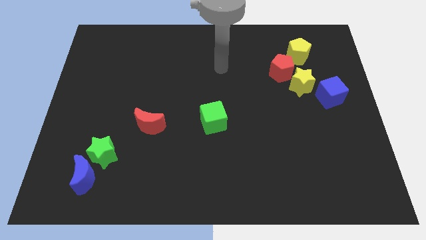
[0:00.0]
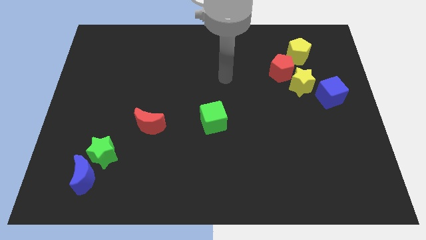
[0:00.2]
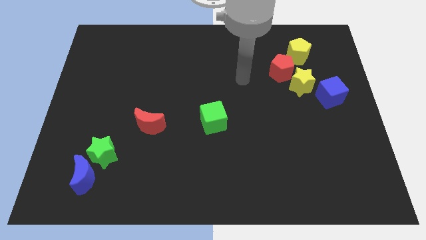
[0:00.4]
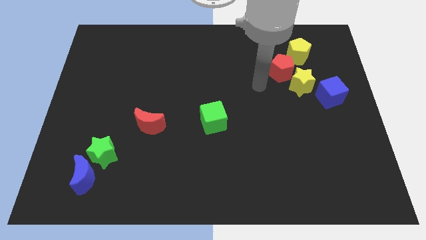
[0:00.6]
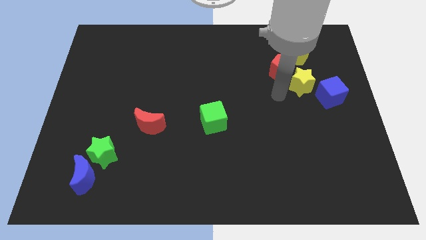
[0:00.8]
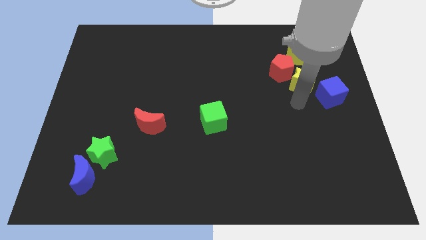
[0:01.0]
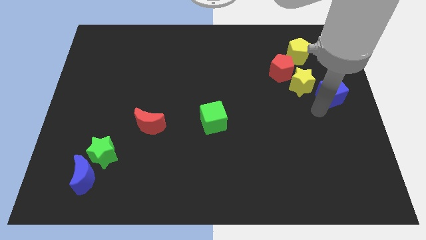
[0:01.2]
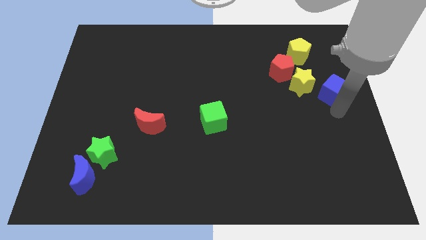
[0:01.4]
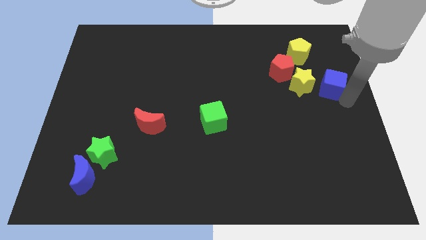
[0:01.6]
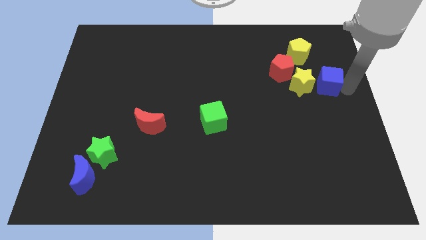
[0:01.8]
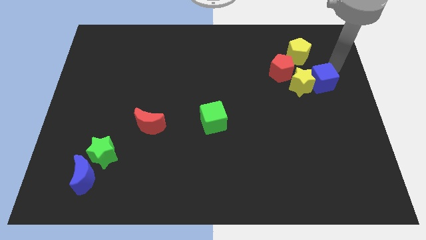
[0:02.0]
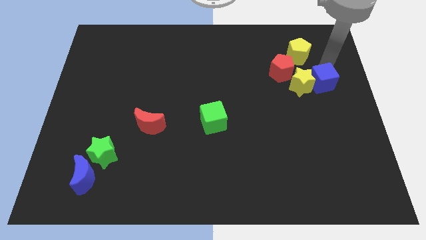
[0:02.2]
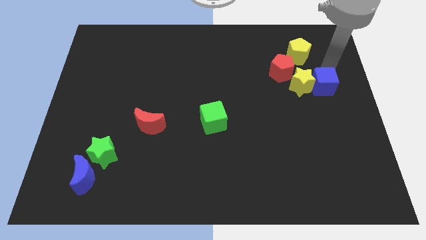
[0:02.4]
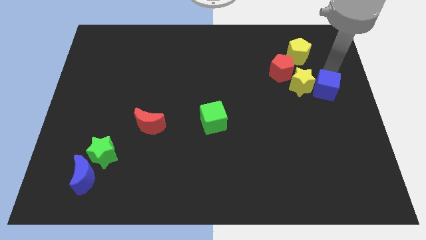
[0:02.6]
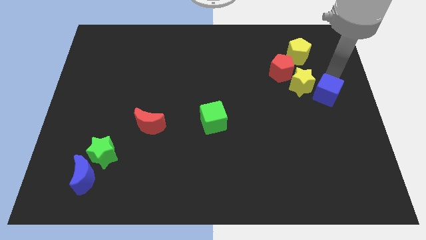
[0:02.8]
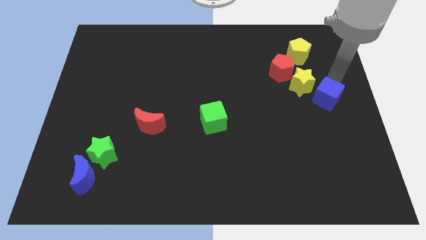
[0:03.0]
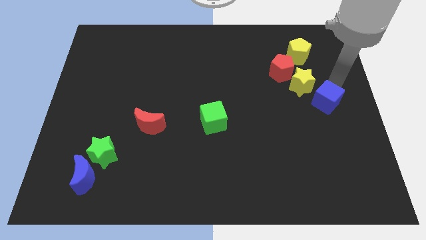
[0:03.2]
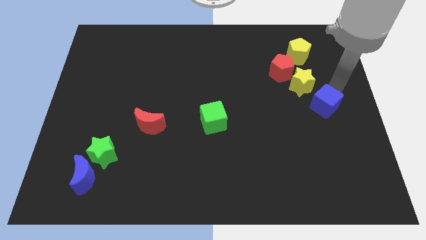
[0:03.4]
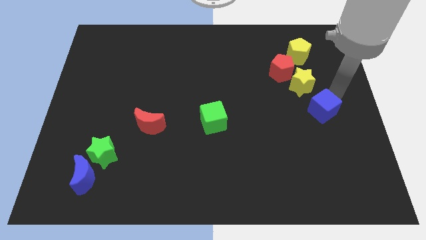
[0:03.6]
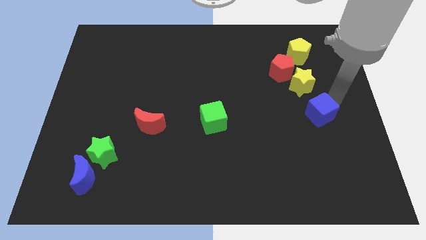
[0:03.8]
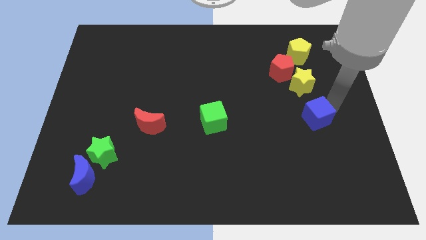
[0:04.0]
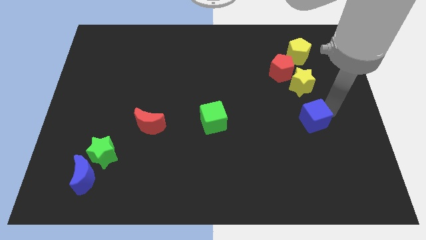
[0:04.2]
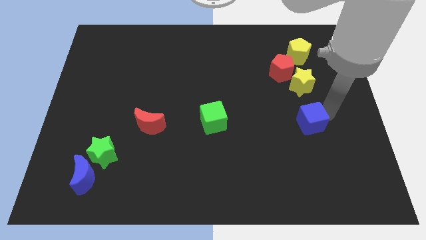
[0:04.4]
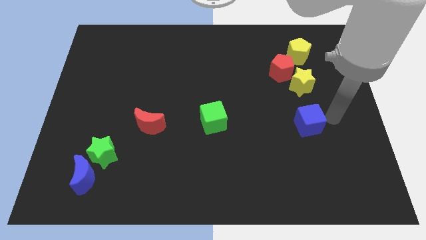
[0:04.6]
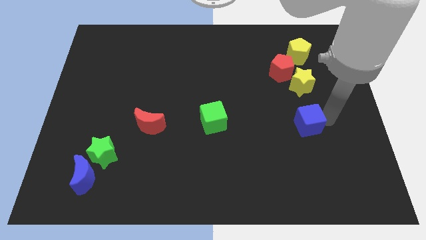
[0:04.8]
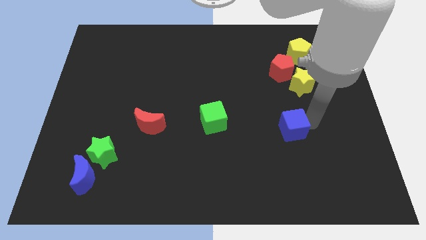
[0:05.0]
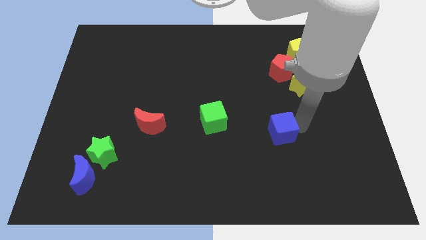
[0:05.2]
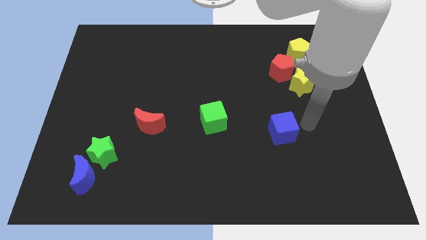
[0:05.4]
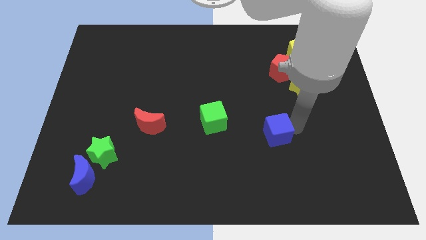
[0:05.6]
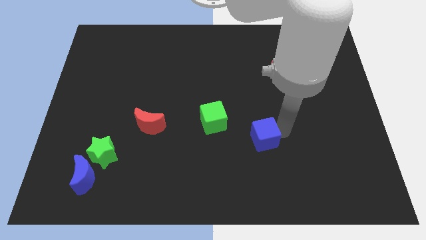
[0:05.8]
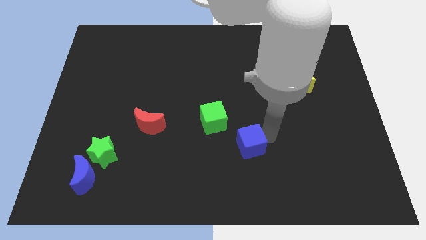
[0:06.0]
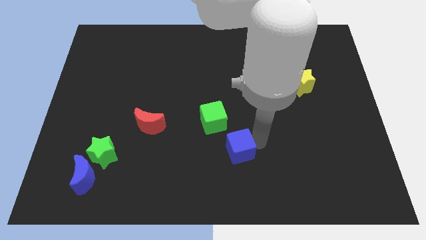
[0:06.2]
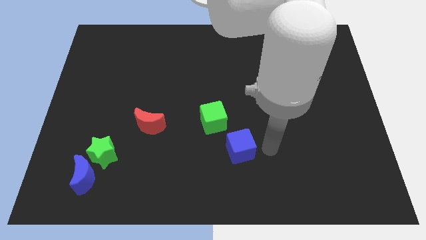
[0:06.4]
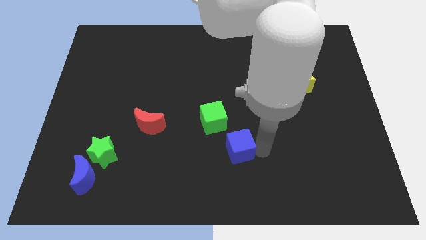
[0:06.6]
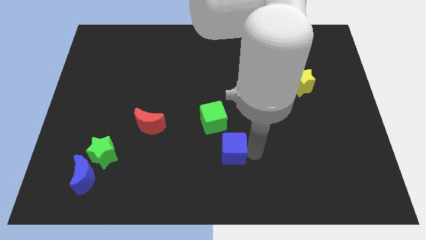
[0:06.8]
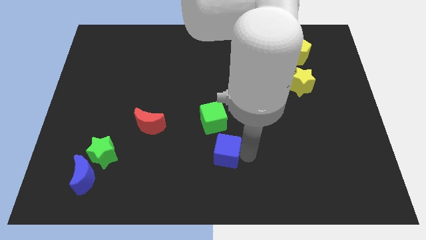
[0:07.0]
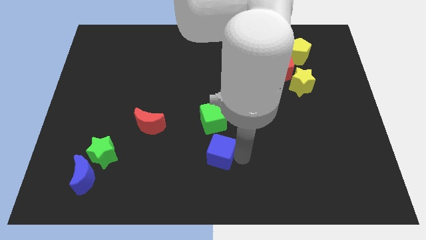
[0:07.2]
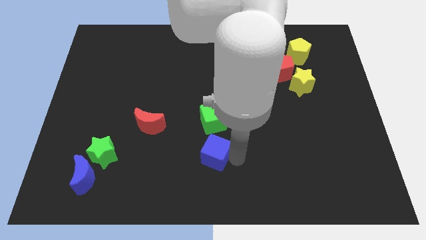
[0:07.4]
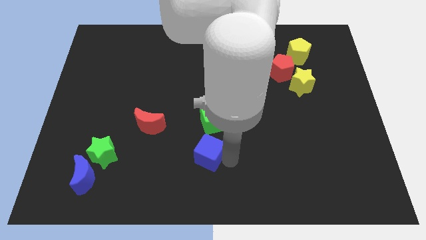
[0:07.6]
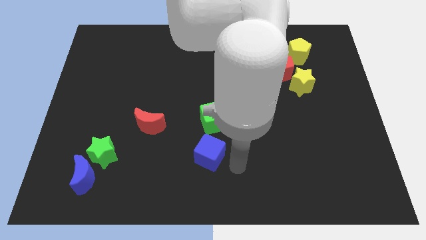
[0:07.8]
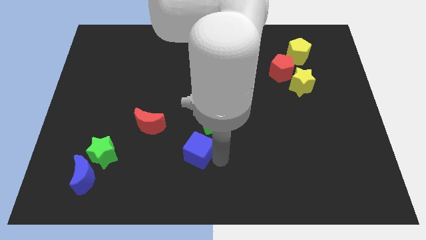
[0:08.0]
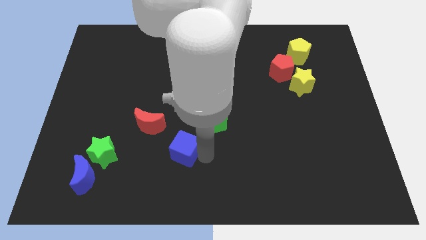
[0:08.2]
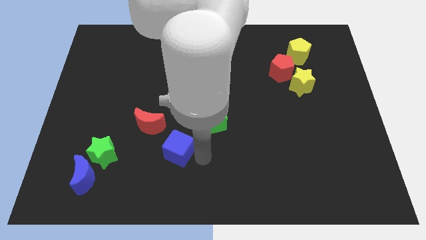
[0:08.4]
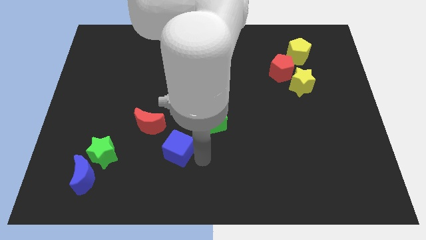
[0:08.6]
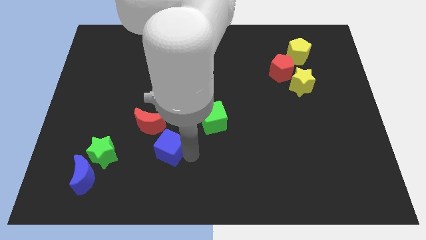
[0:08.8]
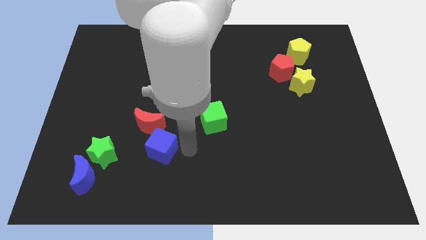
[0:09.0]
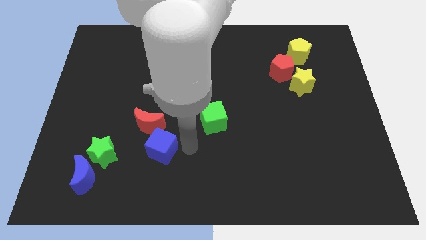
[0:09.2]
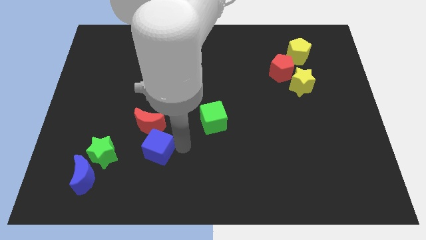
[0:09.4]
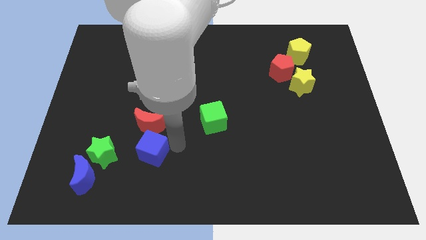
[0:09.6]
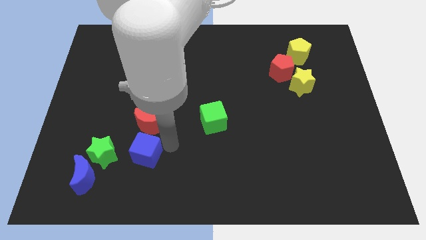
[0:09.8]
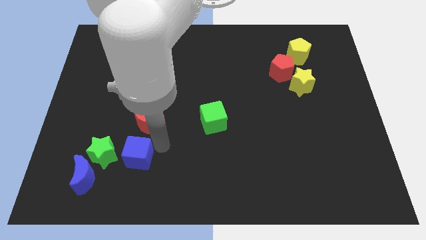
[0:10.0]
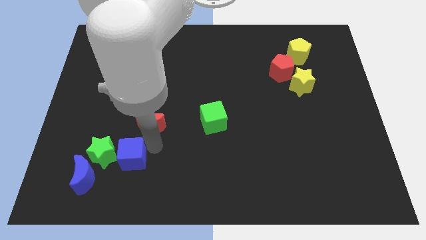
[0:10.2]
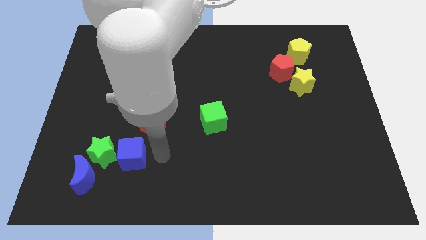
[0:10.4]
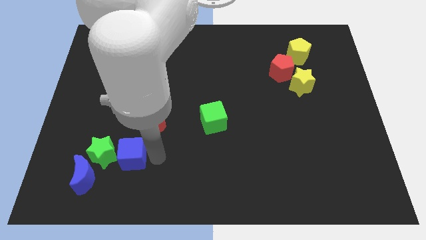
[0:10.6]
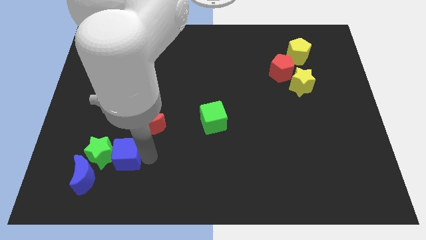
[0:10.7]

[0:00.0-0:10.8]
push the blue cube towards the green star

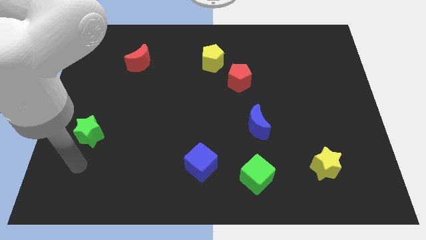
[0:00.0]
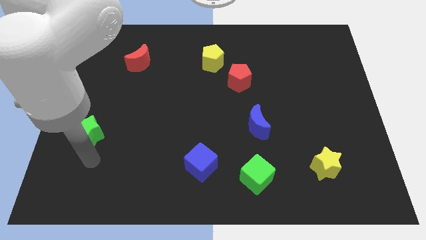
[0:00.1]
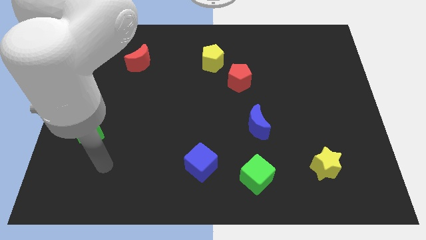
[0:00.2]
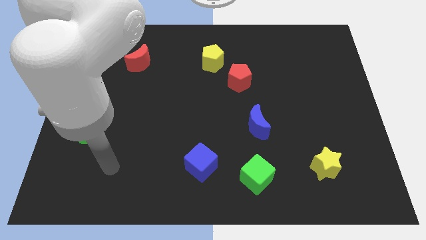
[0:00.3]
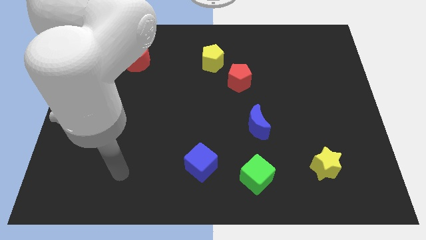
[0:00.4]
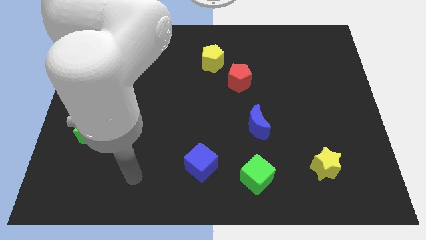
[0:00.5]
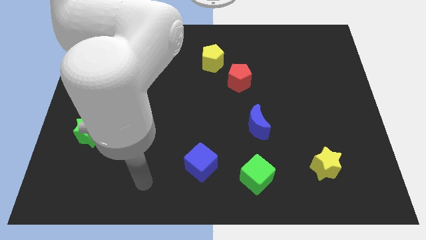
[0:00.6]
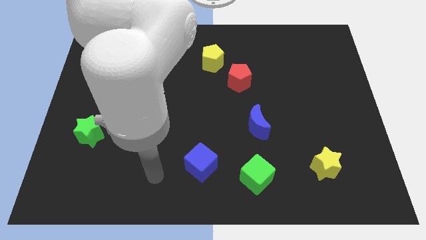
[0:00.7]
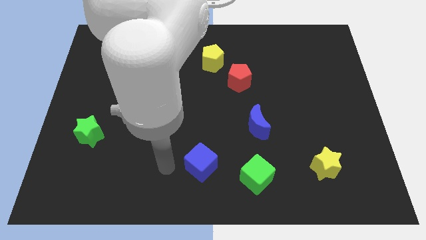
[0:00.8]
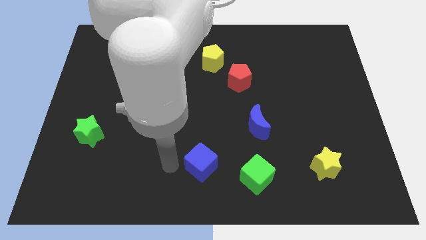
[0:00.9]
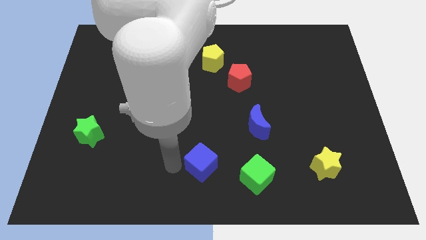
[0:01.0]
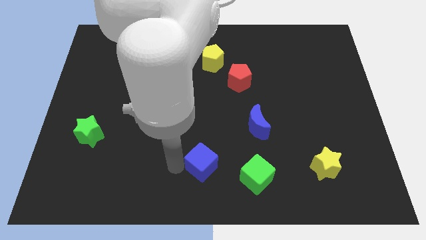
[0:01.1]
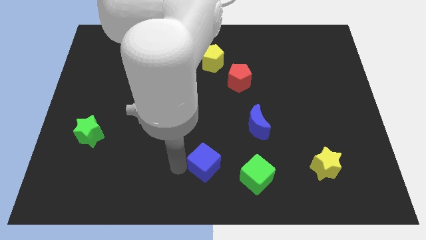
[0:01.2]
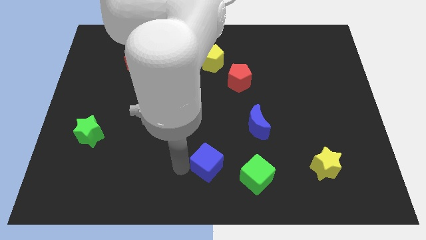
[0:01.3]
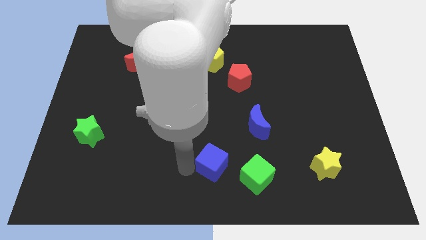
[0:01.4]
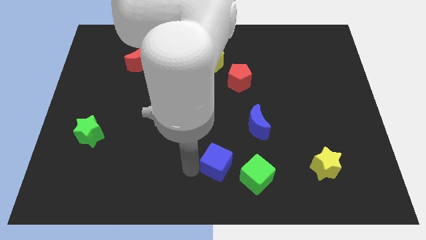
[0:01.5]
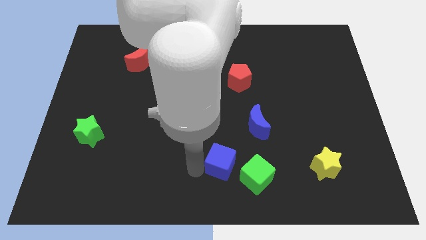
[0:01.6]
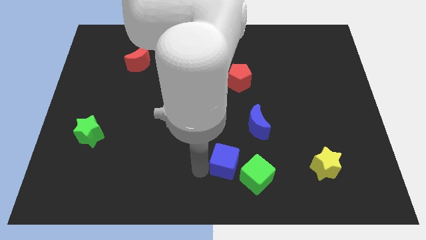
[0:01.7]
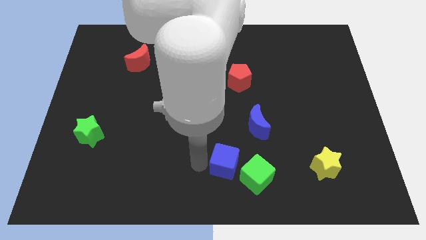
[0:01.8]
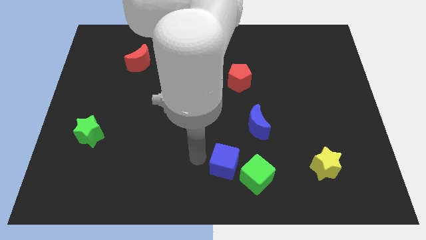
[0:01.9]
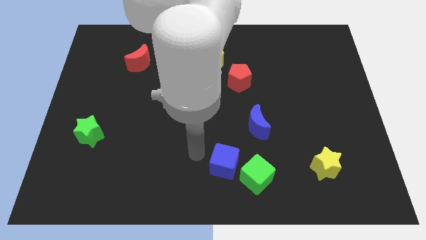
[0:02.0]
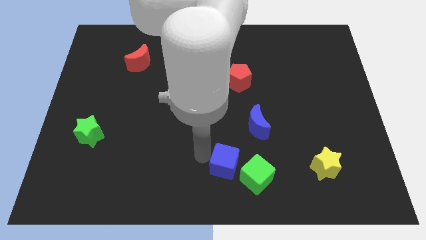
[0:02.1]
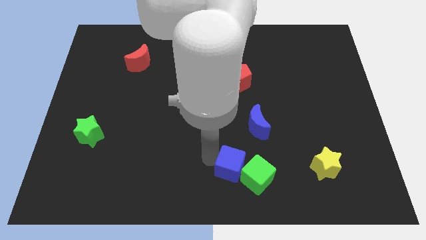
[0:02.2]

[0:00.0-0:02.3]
put the blue cube to the green cube
